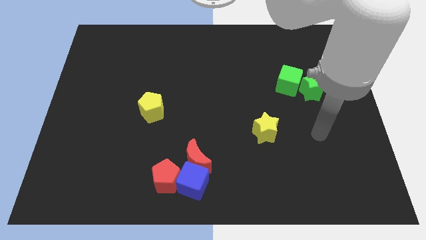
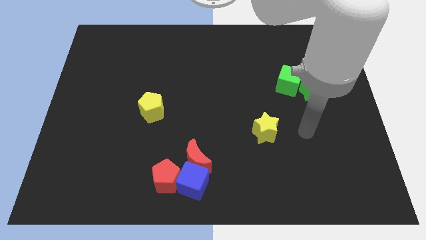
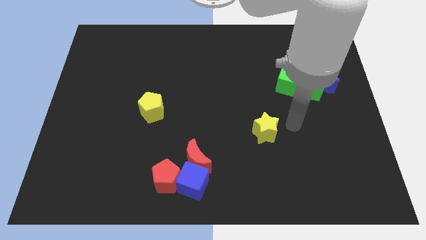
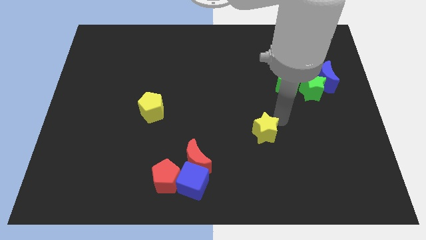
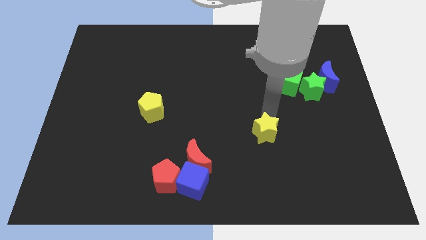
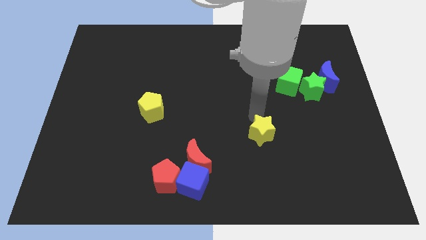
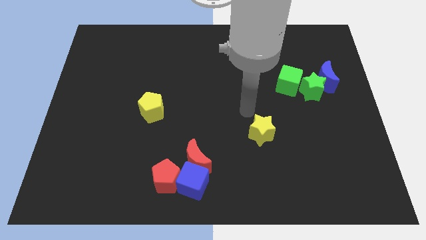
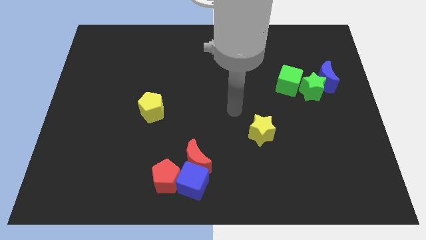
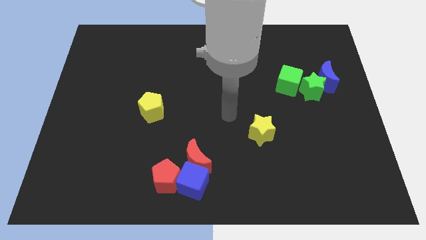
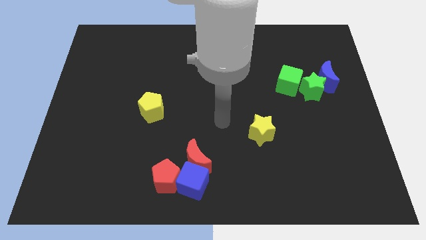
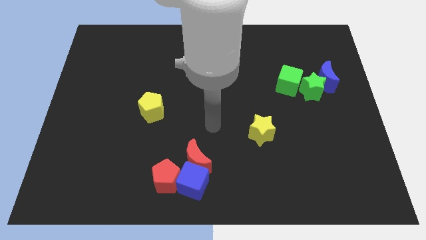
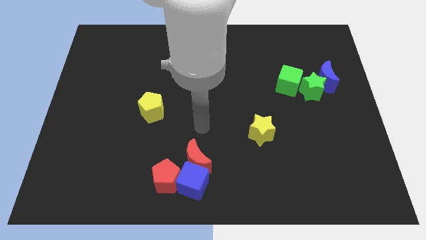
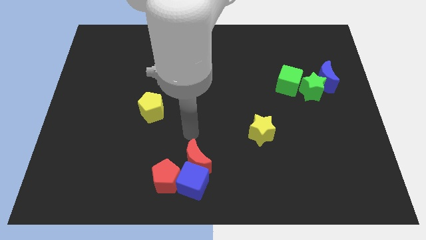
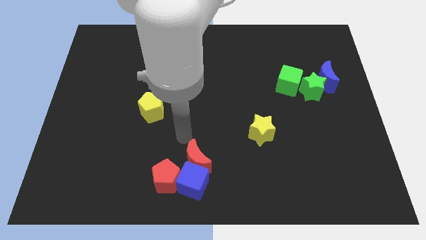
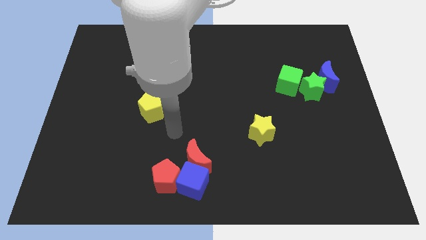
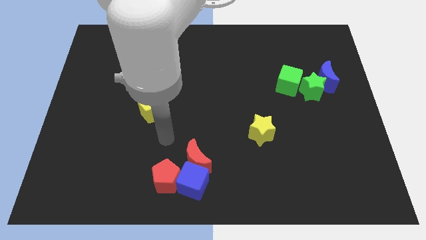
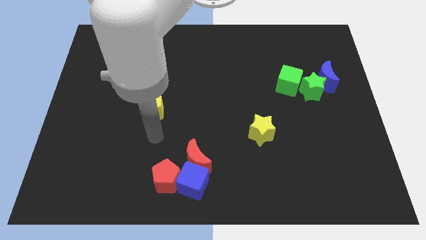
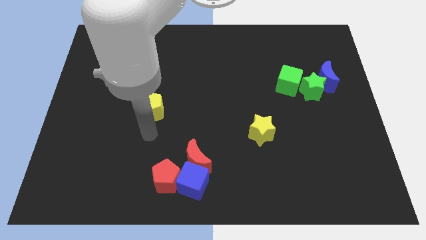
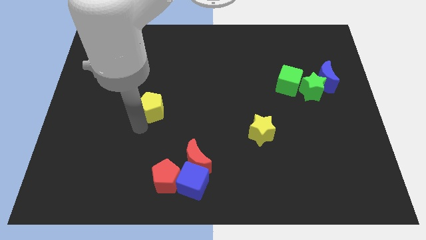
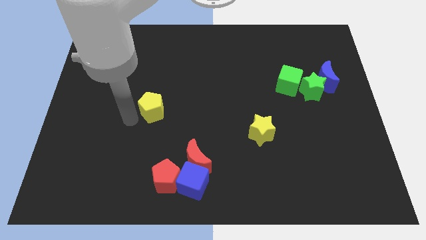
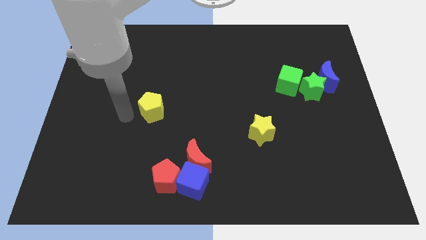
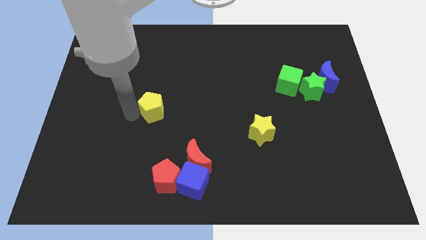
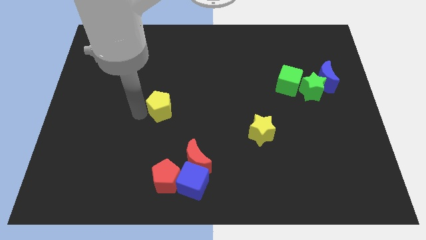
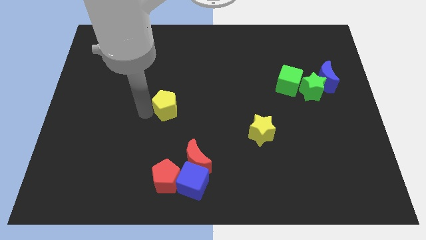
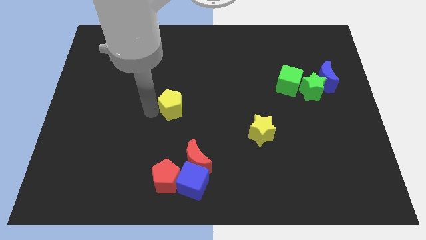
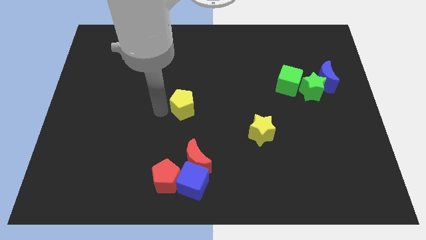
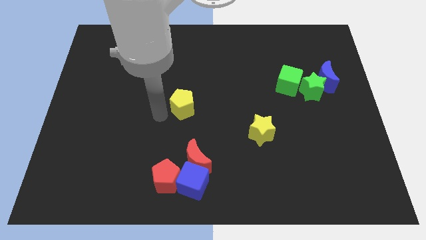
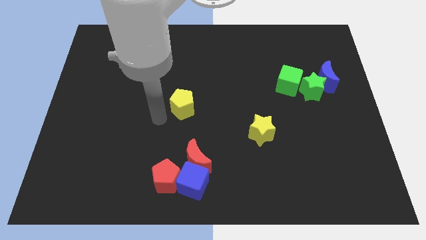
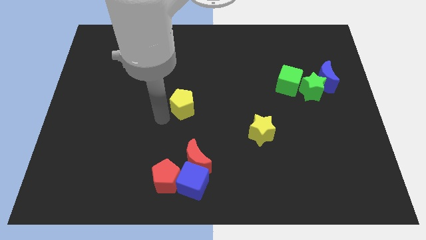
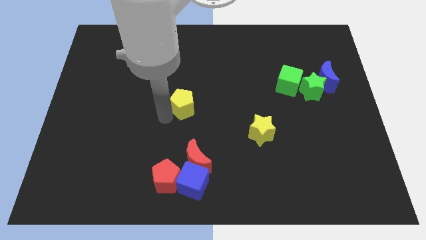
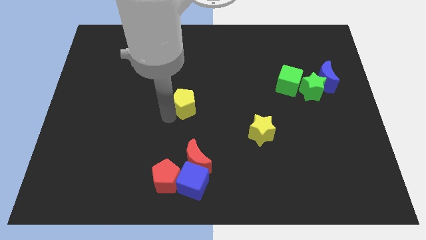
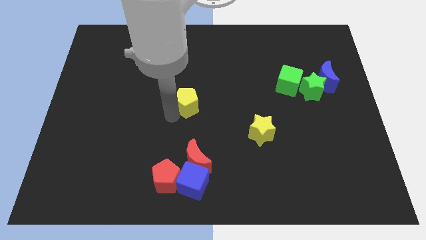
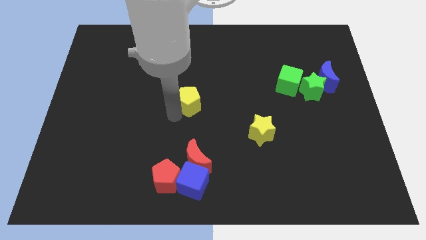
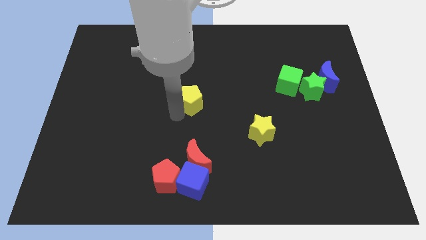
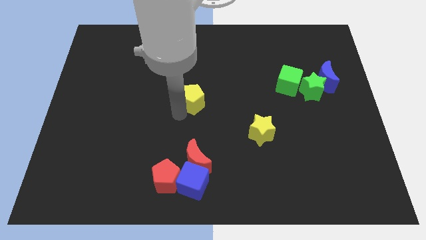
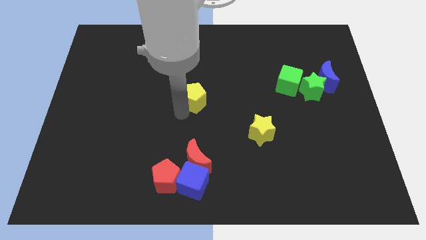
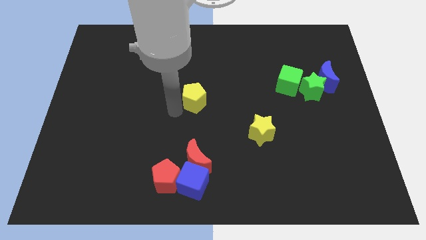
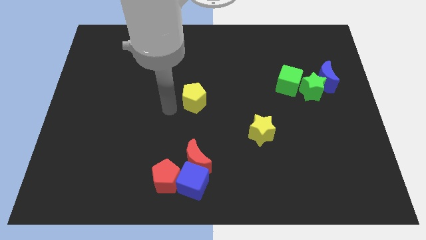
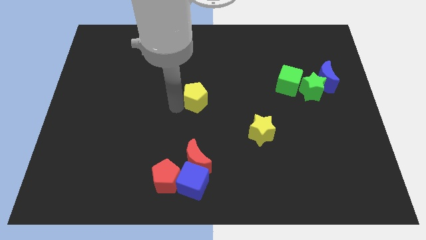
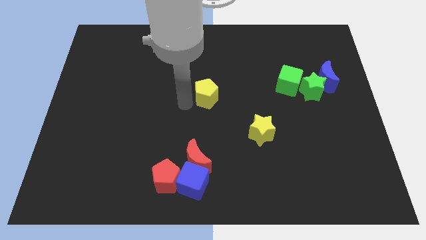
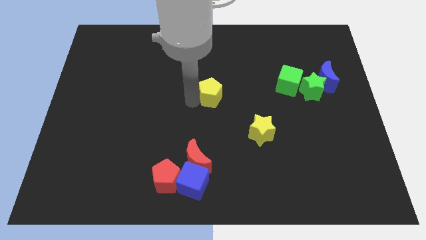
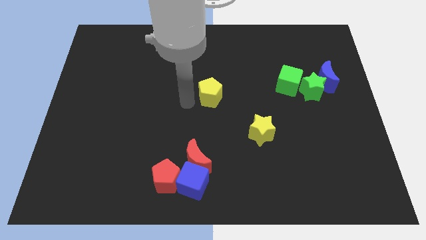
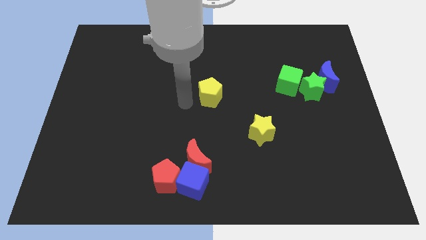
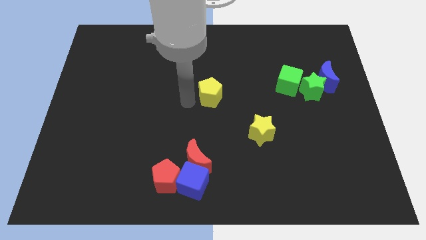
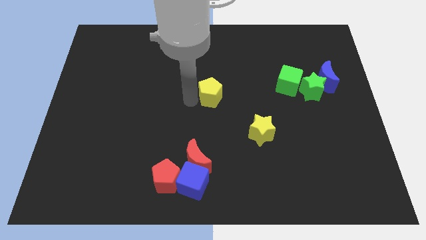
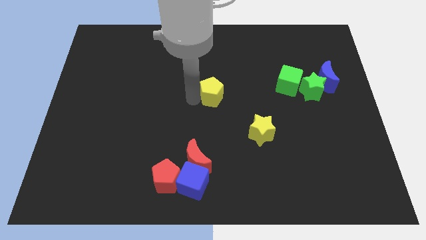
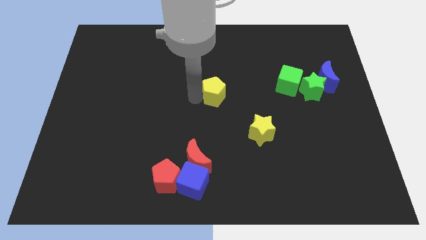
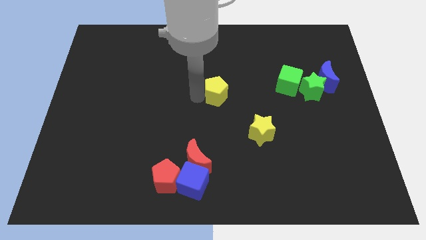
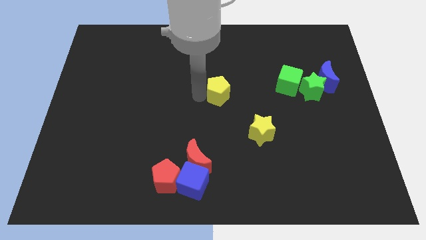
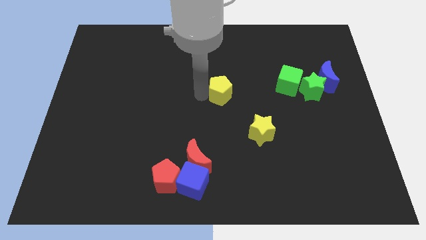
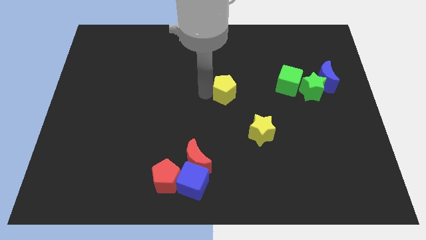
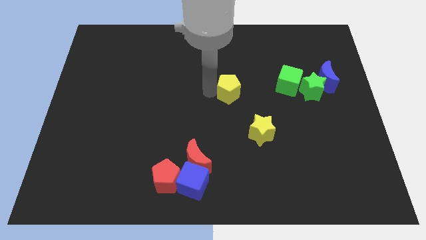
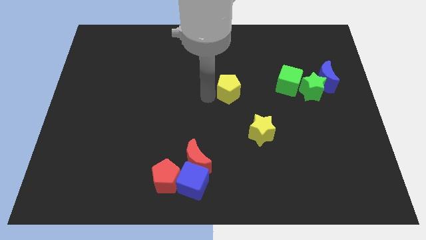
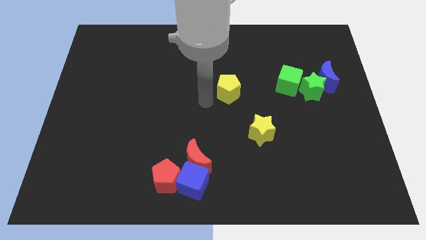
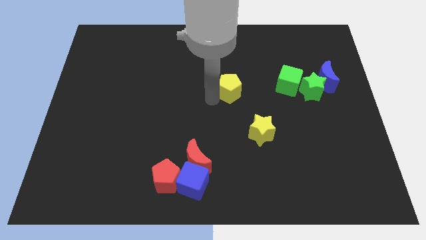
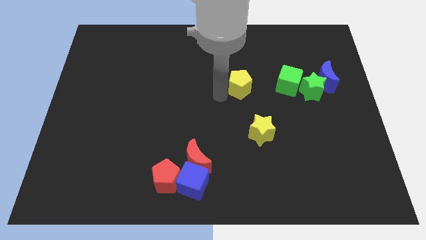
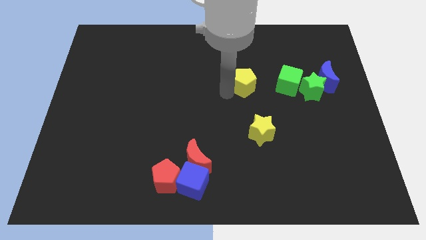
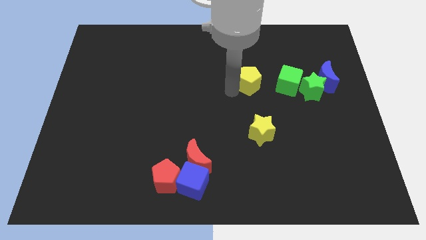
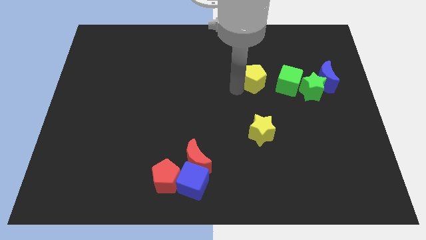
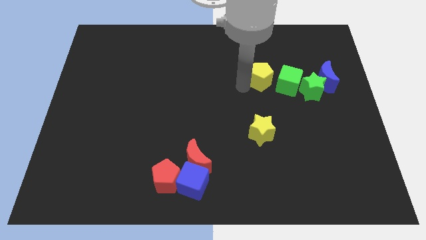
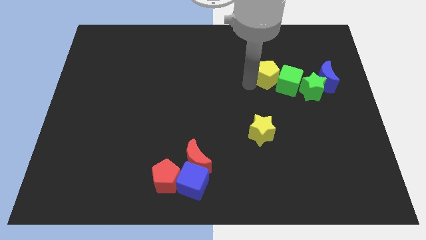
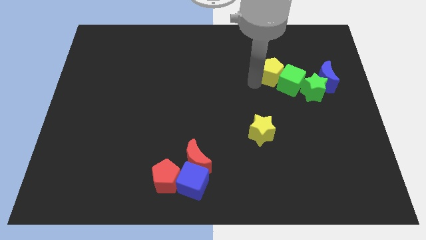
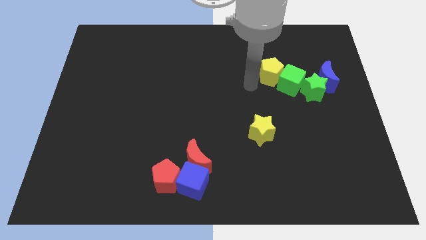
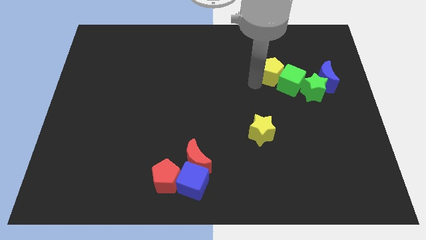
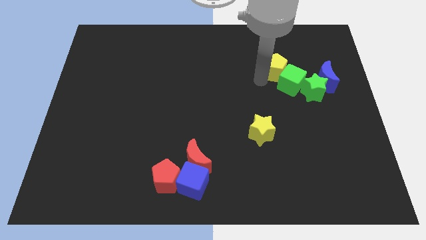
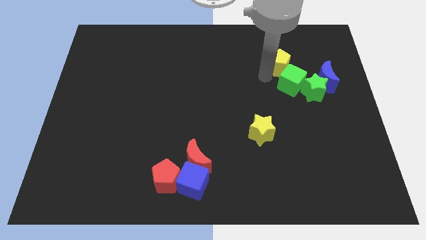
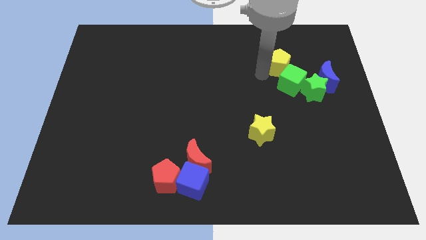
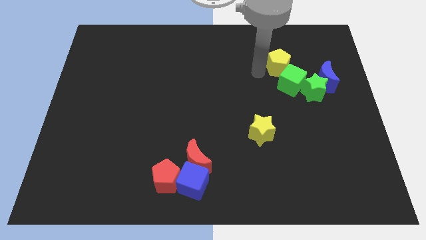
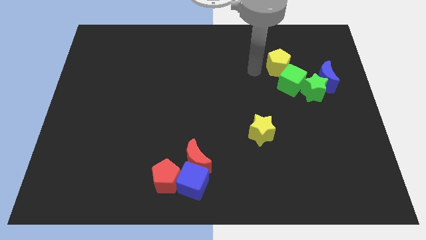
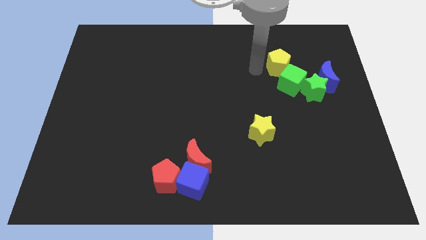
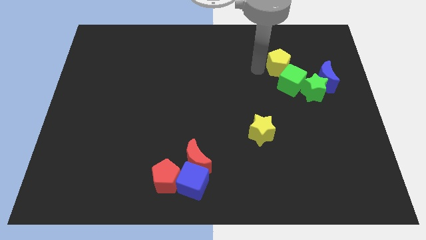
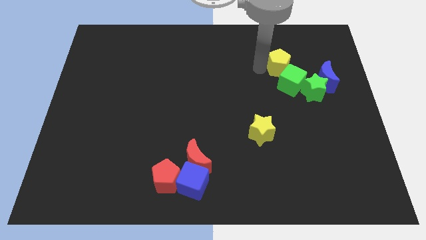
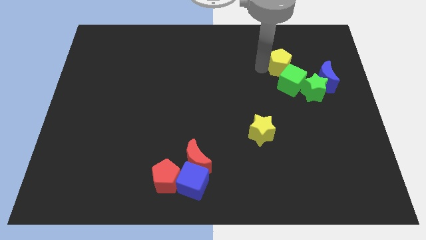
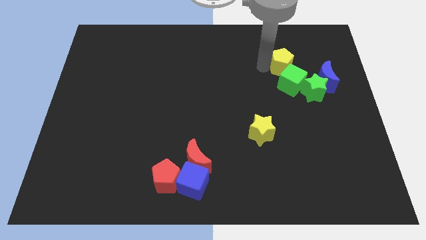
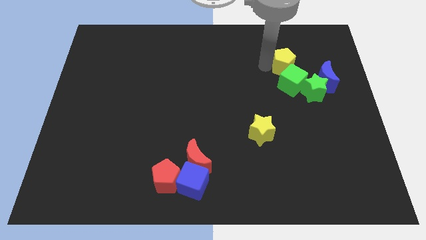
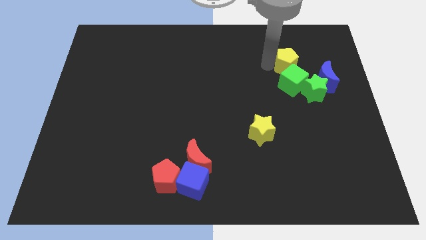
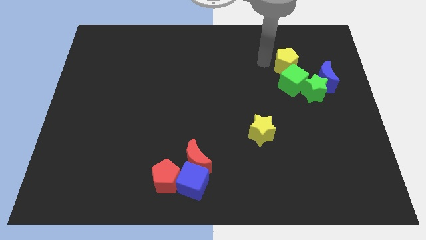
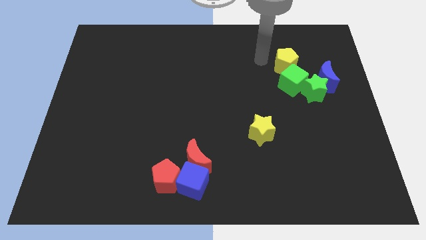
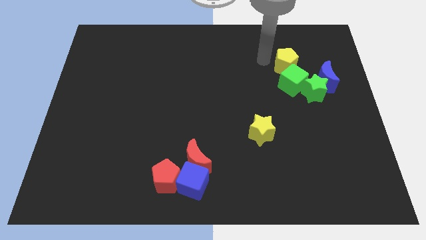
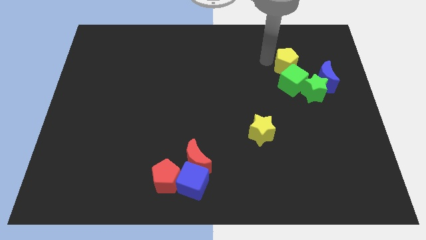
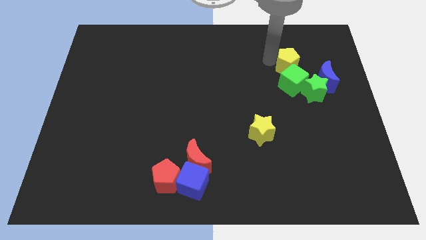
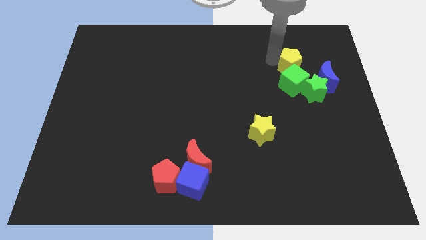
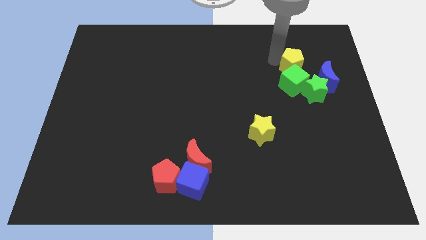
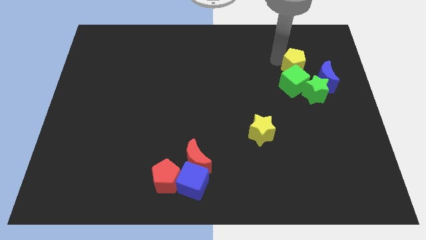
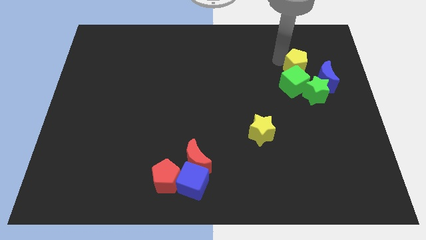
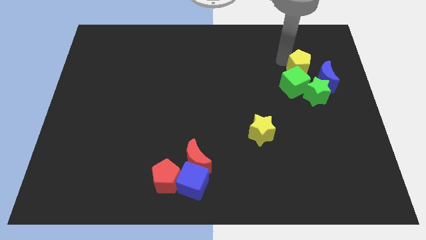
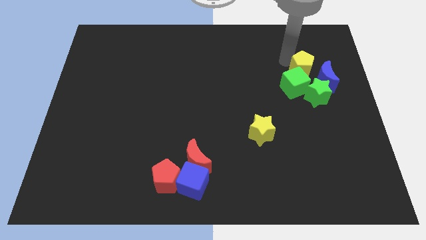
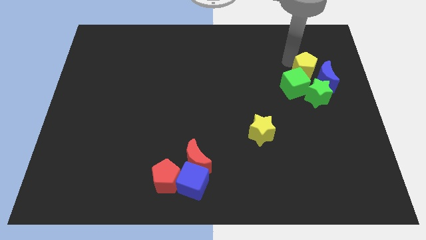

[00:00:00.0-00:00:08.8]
slide the yellow pentagon to the blue moon
